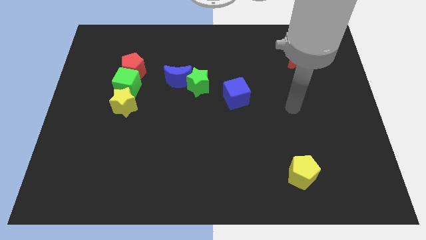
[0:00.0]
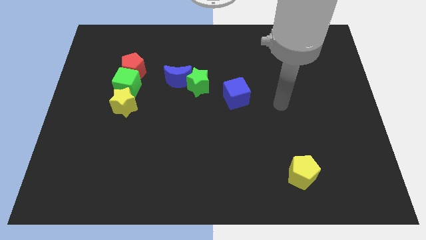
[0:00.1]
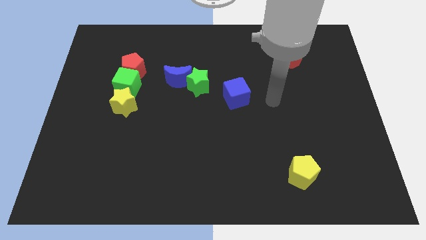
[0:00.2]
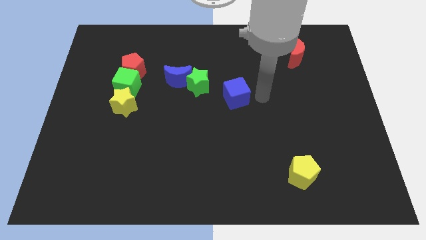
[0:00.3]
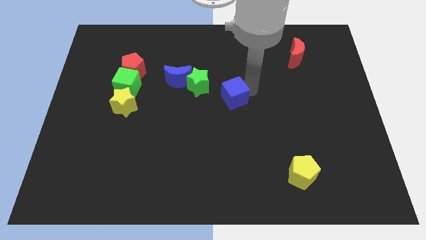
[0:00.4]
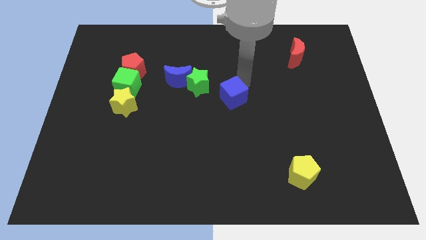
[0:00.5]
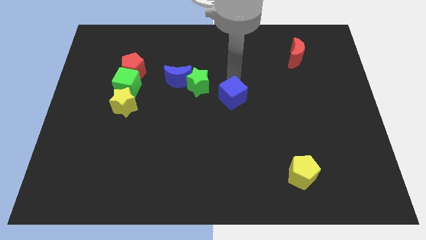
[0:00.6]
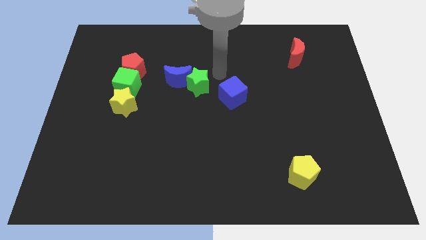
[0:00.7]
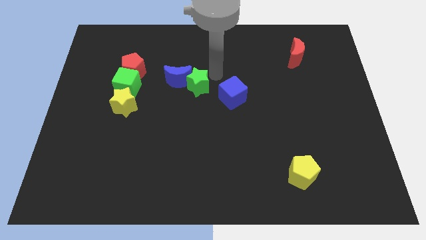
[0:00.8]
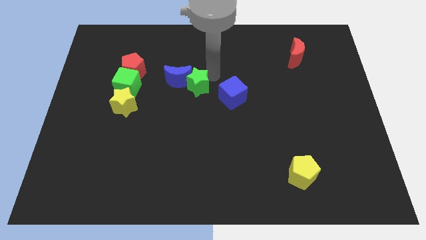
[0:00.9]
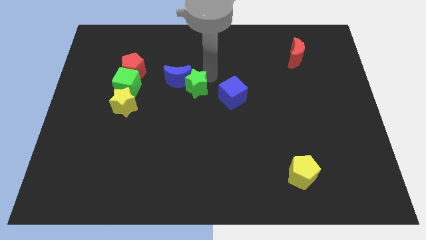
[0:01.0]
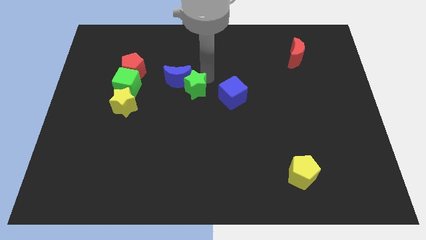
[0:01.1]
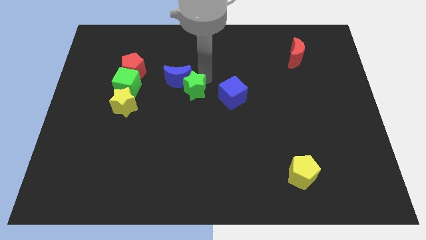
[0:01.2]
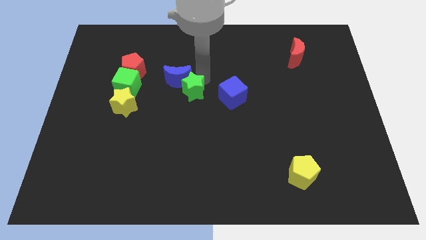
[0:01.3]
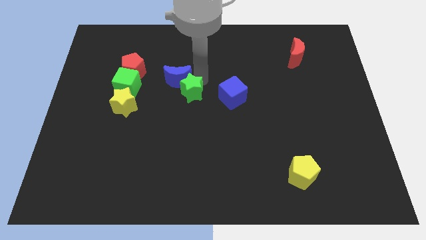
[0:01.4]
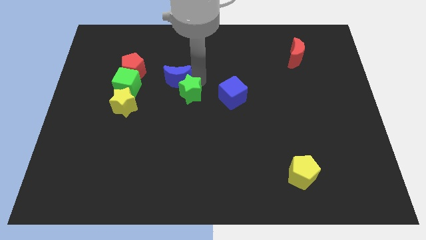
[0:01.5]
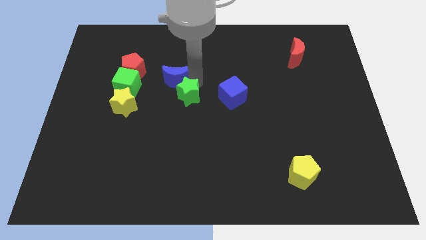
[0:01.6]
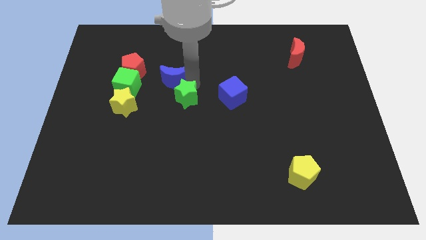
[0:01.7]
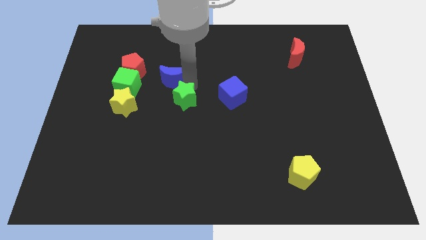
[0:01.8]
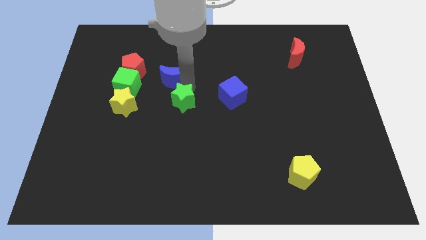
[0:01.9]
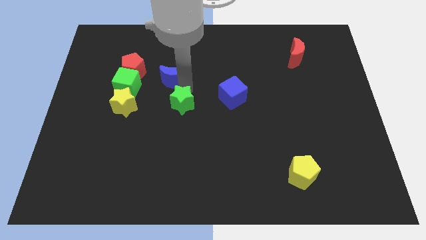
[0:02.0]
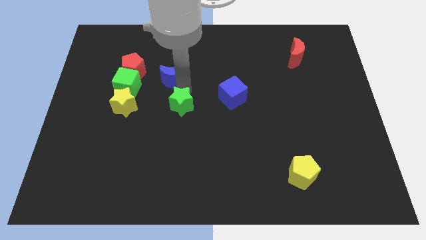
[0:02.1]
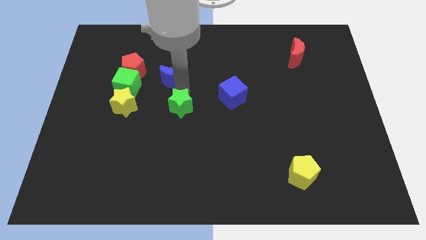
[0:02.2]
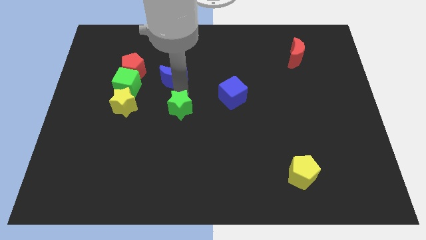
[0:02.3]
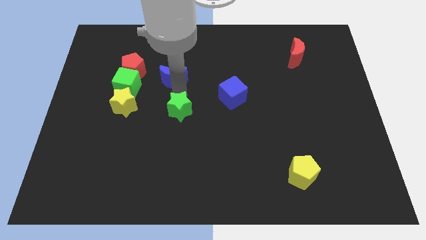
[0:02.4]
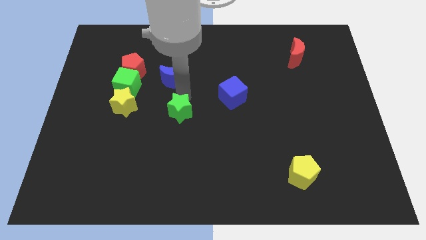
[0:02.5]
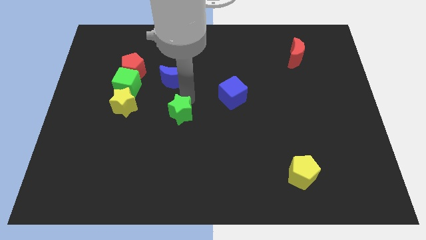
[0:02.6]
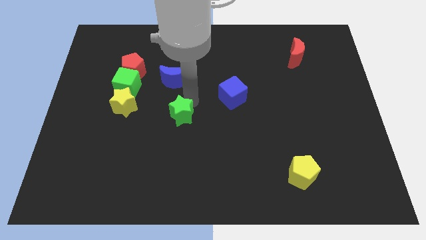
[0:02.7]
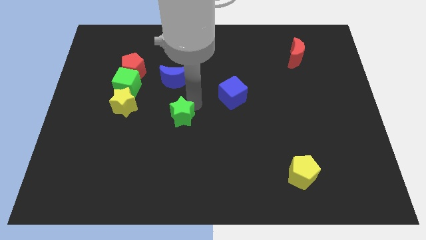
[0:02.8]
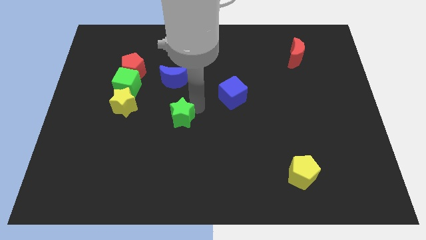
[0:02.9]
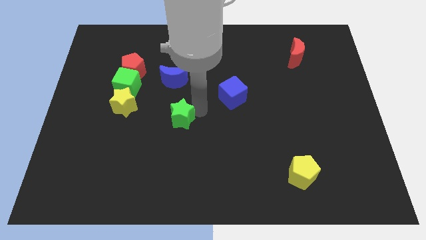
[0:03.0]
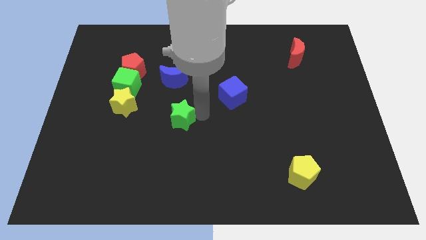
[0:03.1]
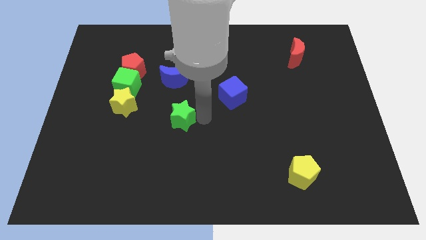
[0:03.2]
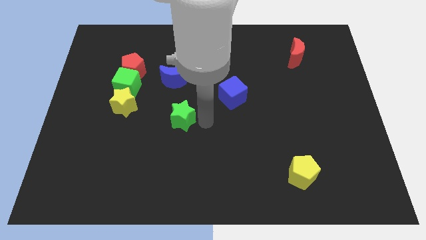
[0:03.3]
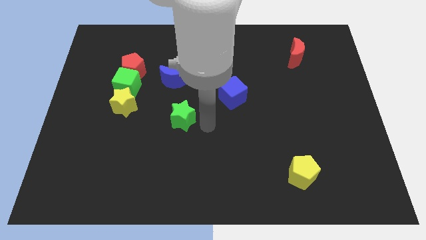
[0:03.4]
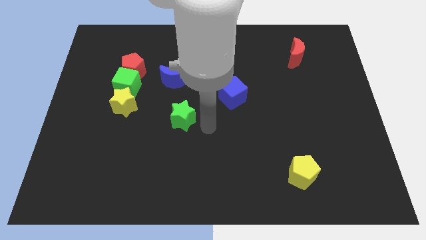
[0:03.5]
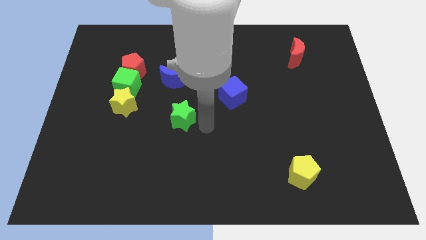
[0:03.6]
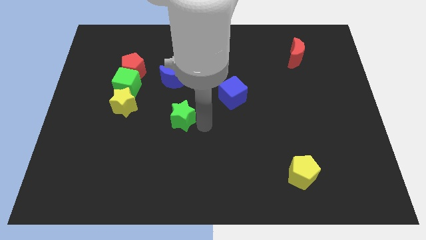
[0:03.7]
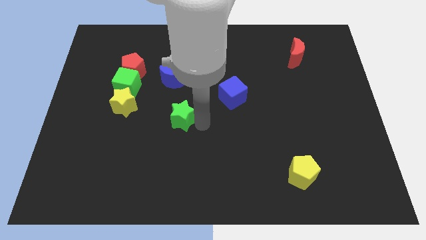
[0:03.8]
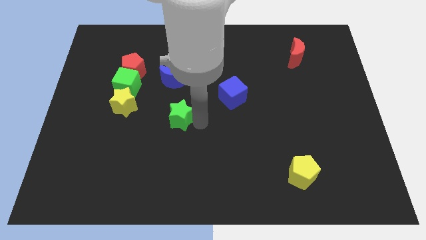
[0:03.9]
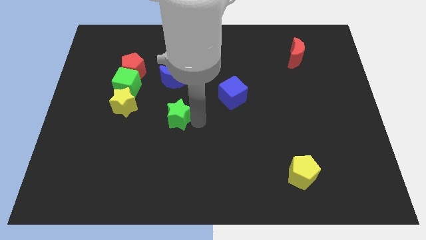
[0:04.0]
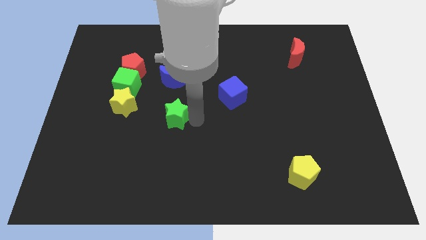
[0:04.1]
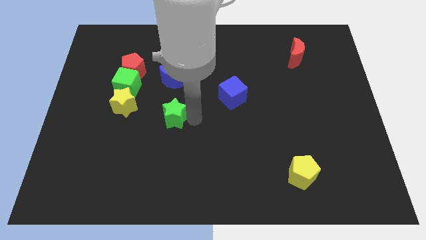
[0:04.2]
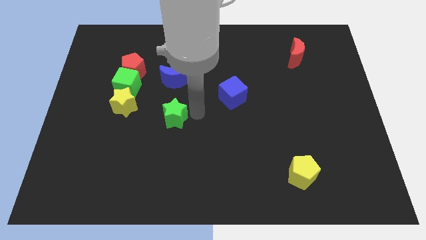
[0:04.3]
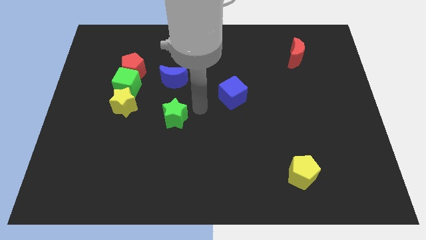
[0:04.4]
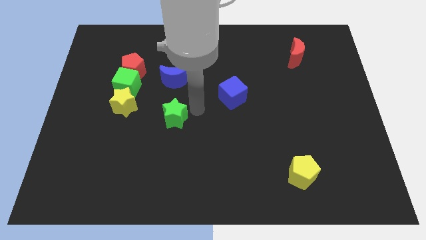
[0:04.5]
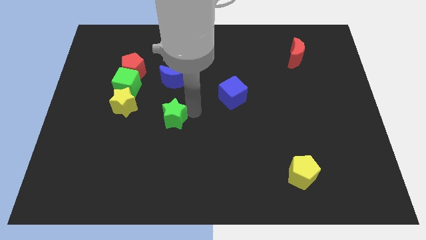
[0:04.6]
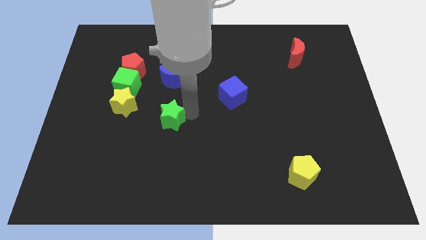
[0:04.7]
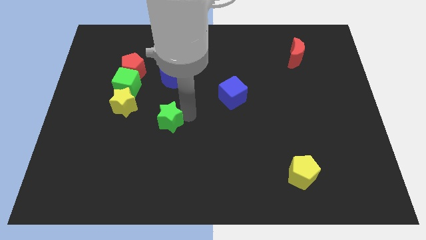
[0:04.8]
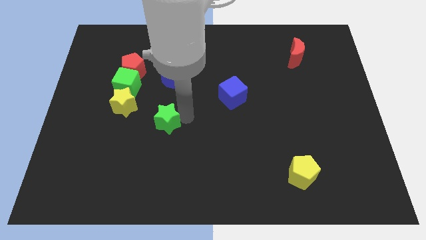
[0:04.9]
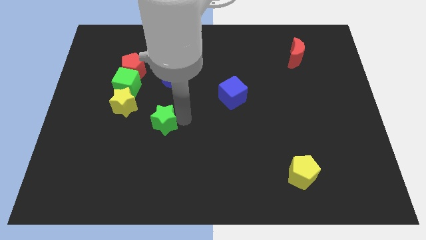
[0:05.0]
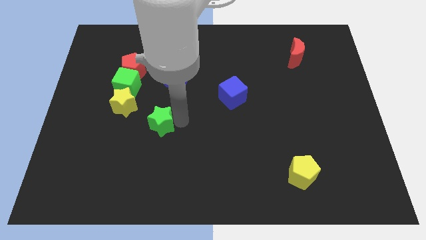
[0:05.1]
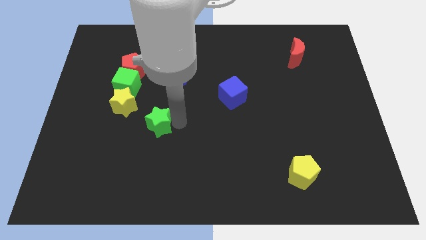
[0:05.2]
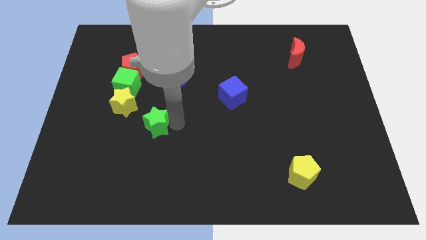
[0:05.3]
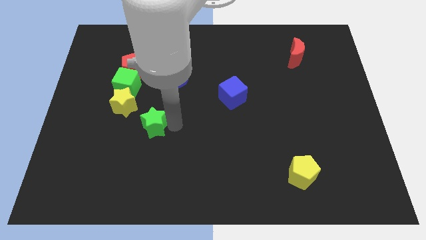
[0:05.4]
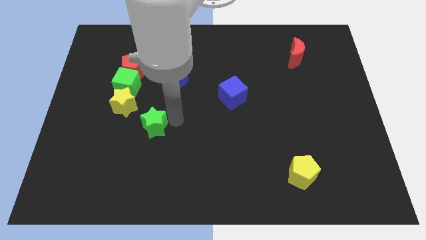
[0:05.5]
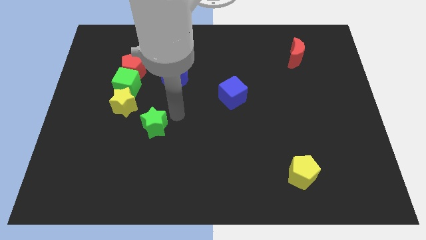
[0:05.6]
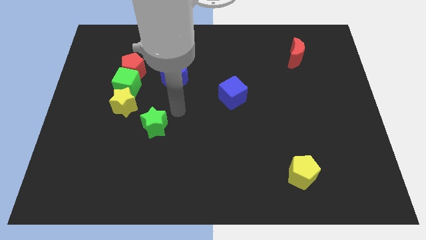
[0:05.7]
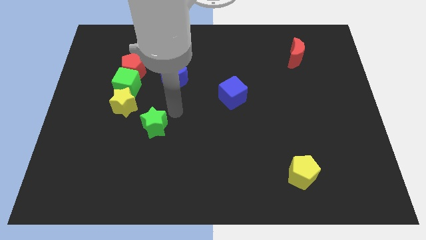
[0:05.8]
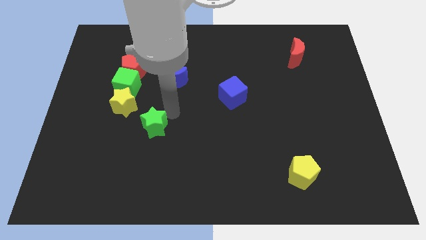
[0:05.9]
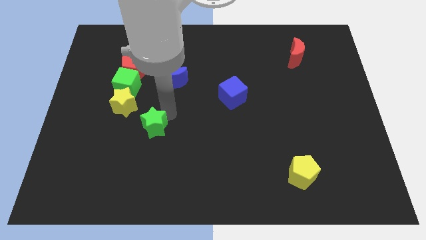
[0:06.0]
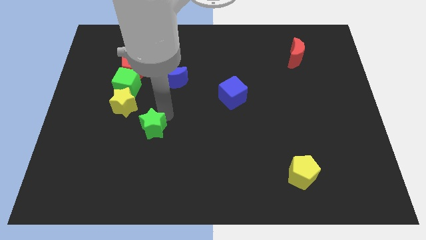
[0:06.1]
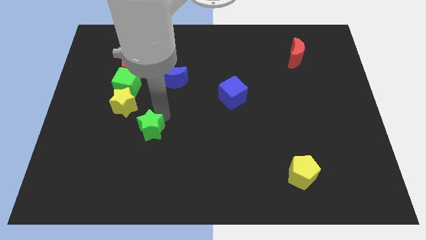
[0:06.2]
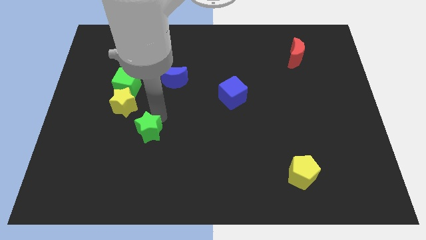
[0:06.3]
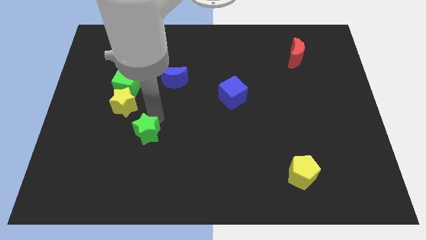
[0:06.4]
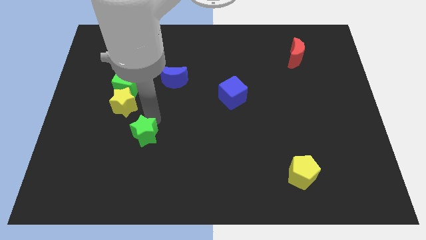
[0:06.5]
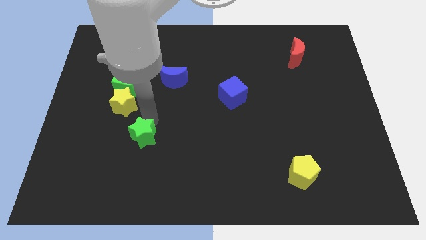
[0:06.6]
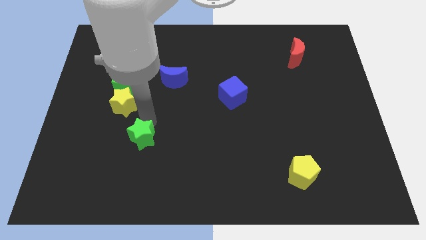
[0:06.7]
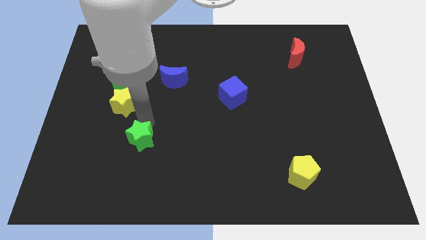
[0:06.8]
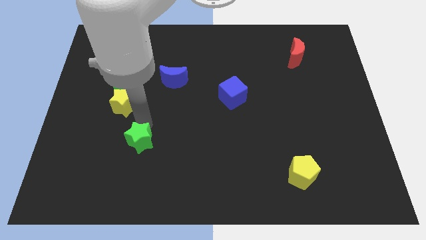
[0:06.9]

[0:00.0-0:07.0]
move the green star downwards and left

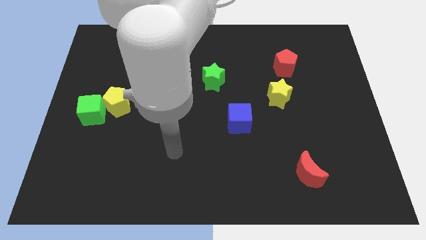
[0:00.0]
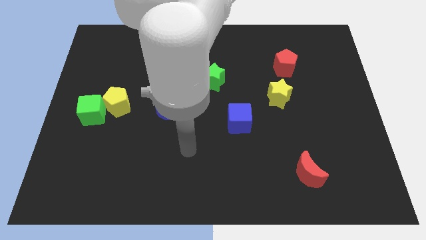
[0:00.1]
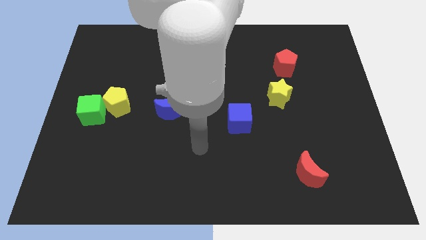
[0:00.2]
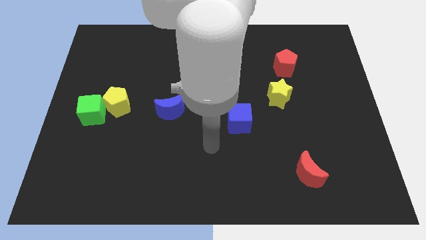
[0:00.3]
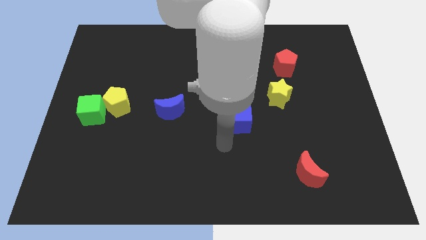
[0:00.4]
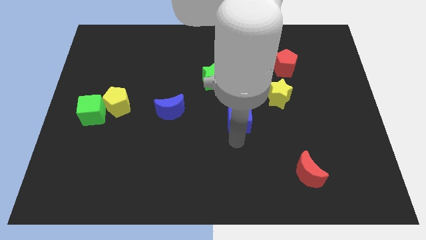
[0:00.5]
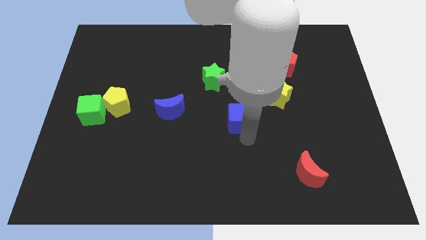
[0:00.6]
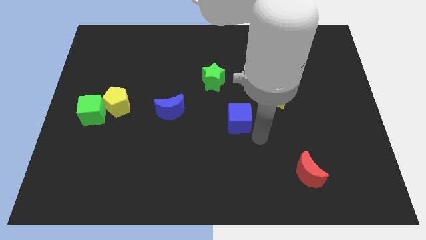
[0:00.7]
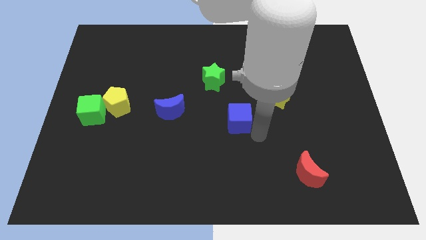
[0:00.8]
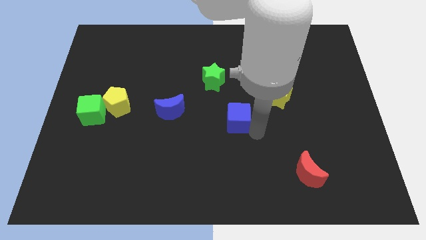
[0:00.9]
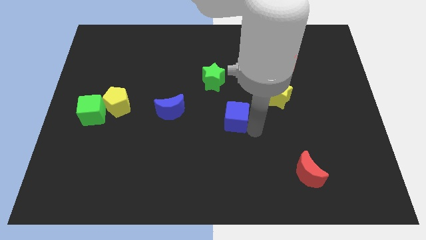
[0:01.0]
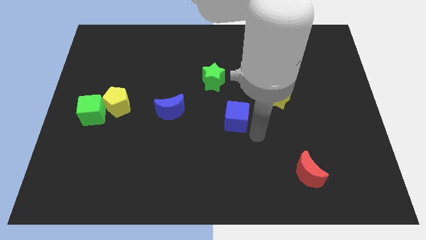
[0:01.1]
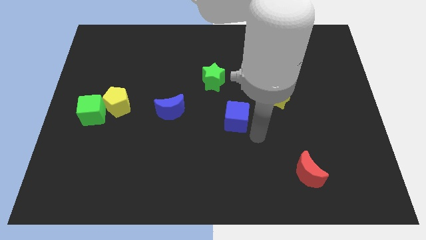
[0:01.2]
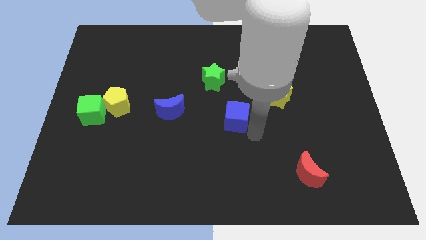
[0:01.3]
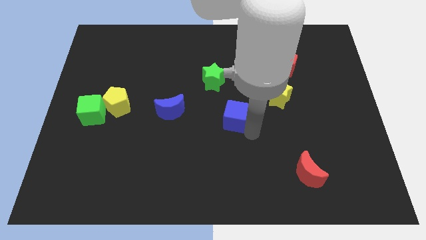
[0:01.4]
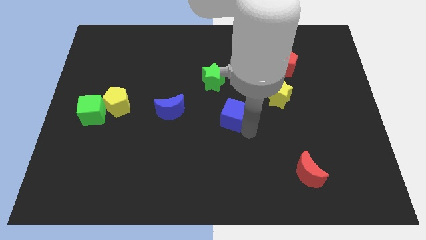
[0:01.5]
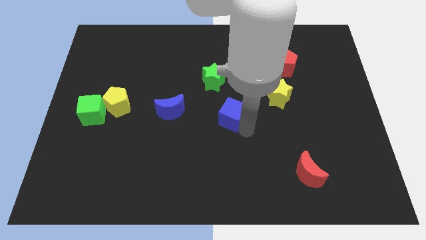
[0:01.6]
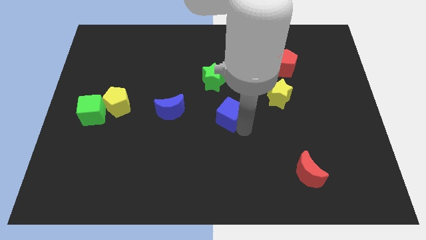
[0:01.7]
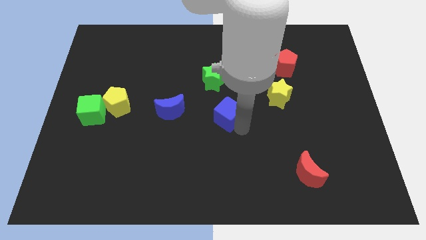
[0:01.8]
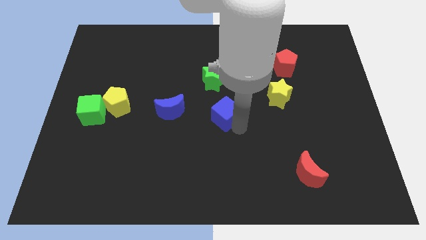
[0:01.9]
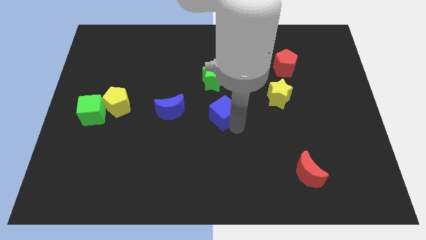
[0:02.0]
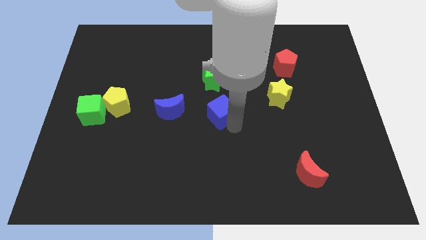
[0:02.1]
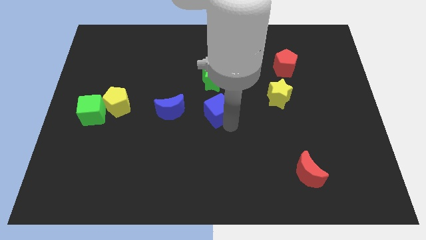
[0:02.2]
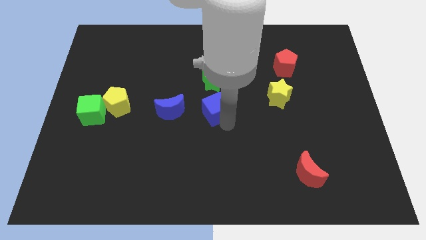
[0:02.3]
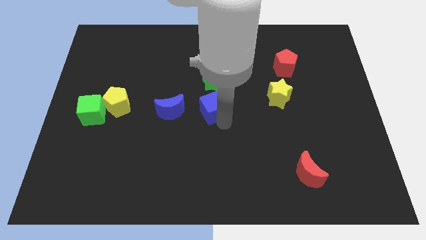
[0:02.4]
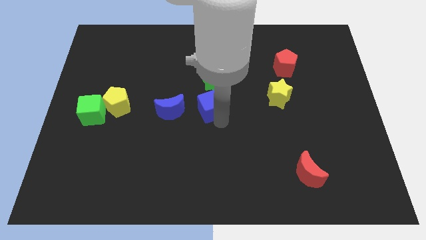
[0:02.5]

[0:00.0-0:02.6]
slightly move the blue cube upwards and left diagonally
